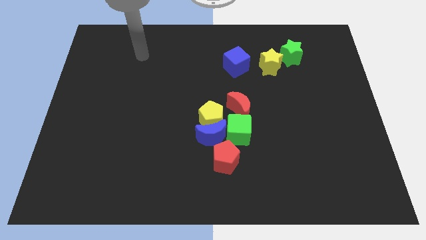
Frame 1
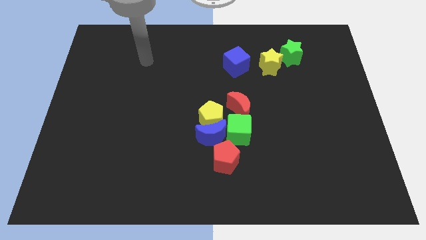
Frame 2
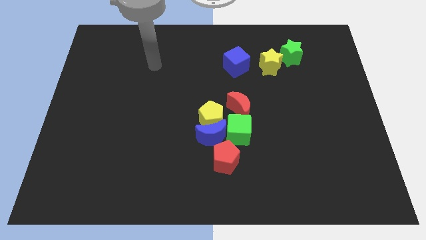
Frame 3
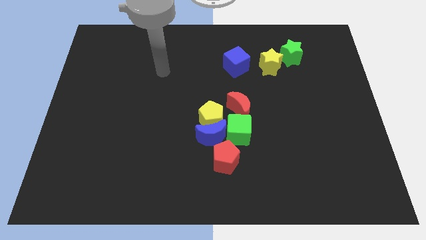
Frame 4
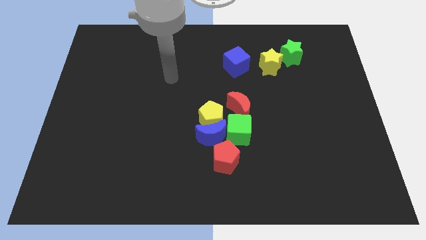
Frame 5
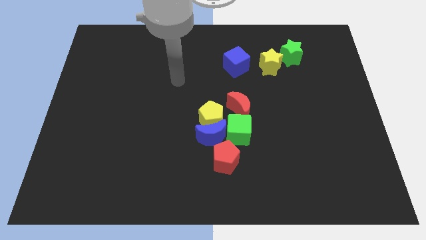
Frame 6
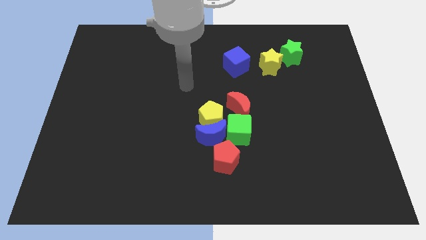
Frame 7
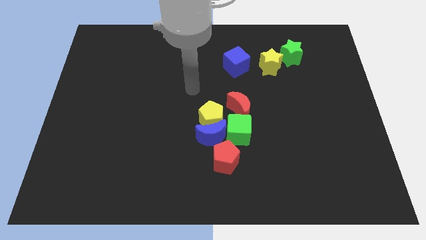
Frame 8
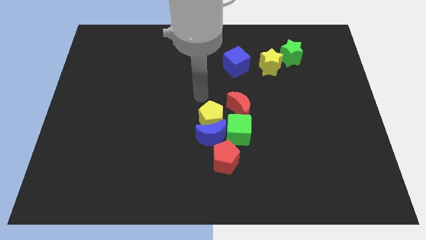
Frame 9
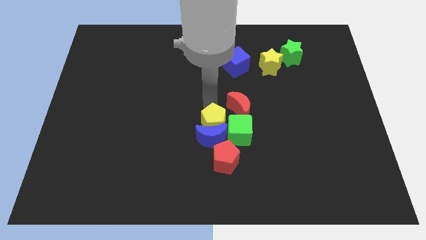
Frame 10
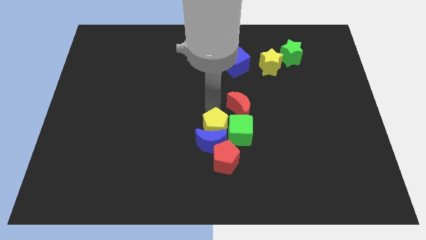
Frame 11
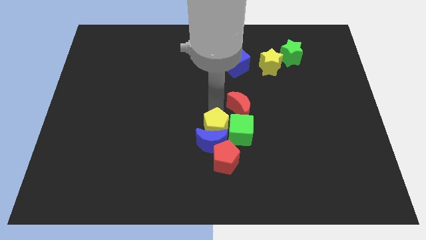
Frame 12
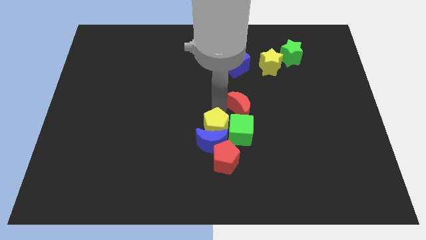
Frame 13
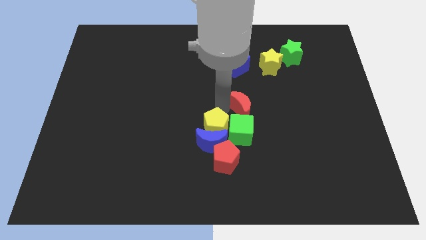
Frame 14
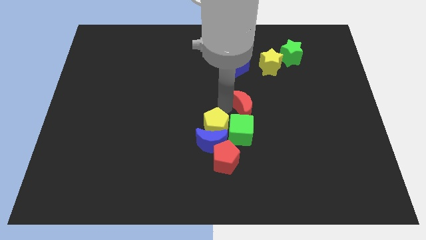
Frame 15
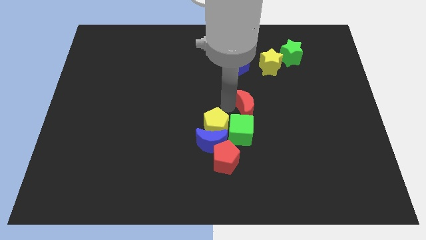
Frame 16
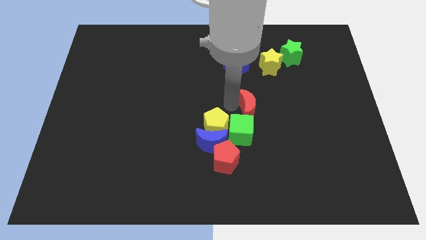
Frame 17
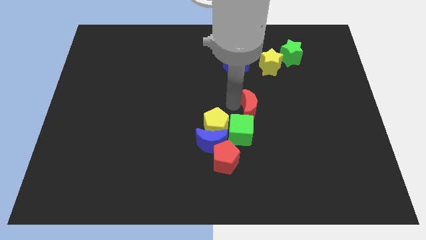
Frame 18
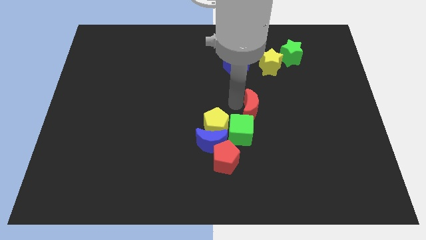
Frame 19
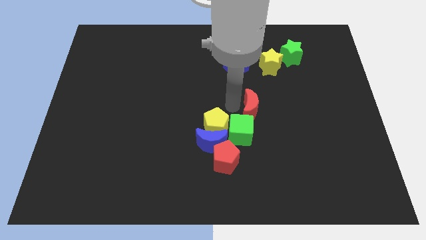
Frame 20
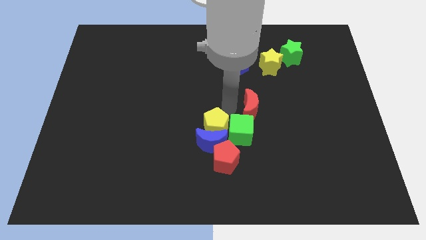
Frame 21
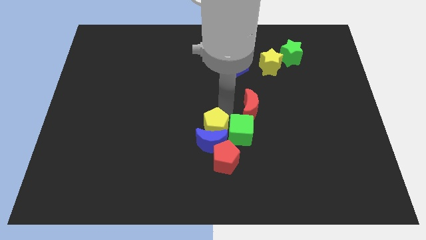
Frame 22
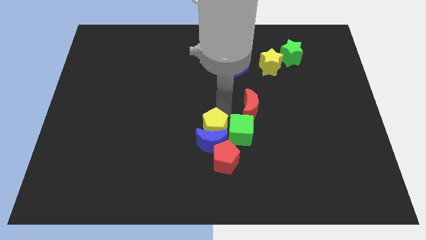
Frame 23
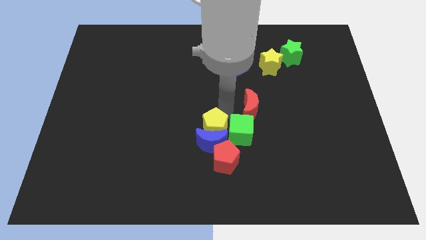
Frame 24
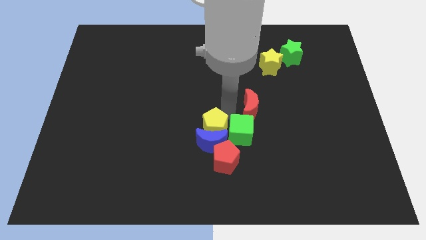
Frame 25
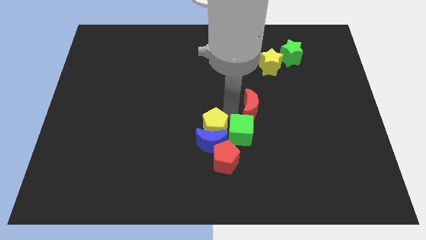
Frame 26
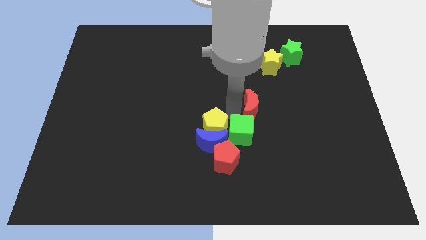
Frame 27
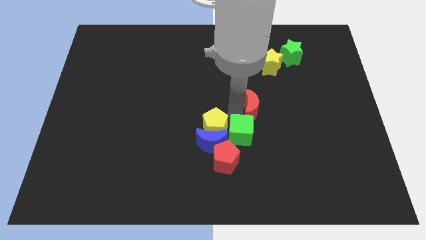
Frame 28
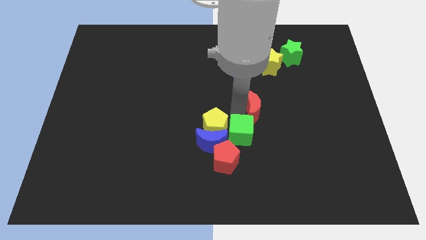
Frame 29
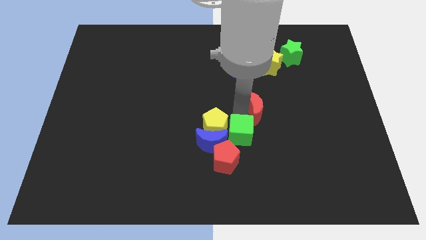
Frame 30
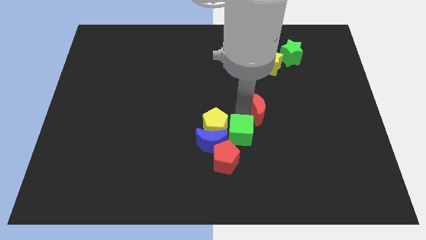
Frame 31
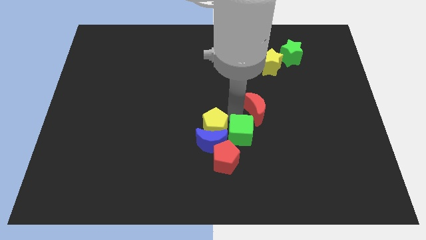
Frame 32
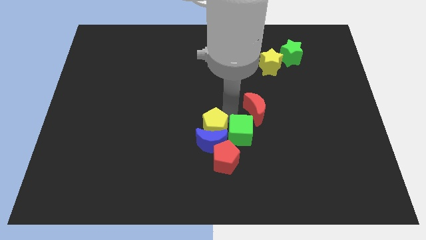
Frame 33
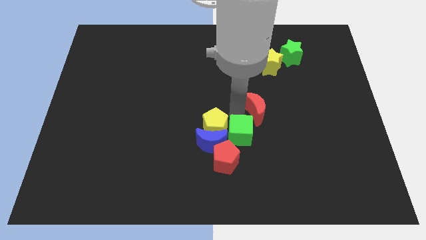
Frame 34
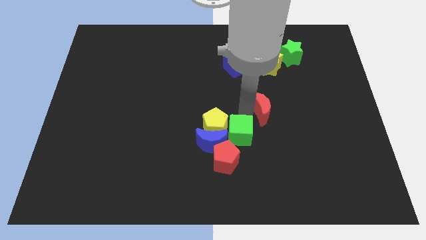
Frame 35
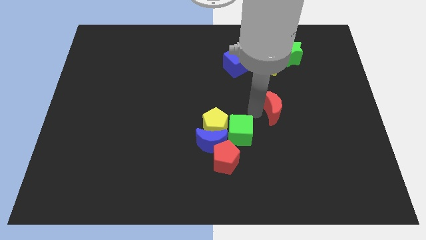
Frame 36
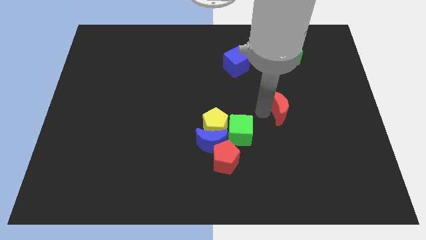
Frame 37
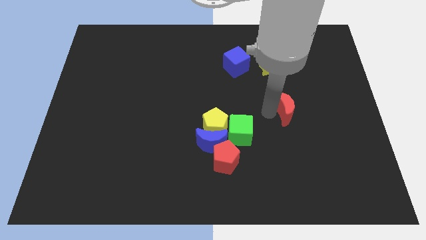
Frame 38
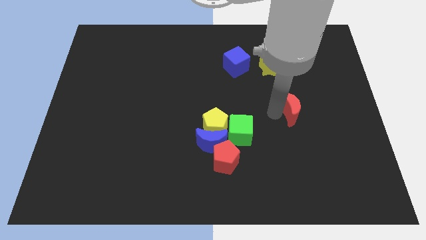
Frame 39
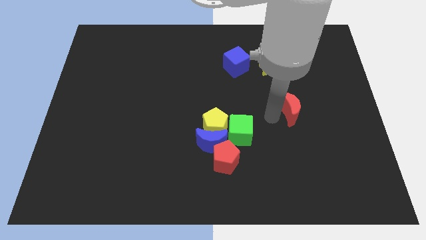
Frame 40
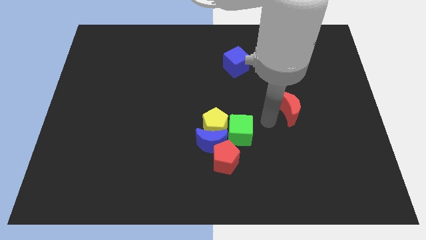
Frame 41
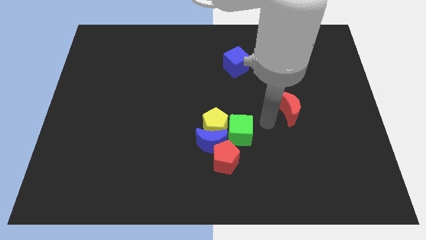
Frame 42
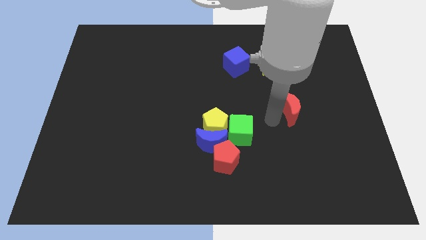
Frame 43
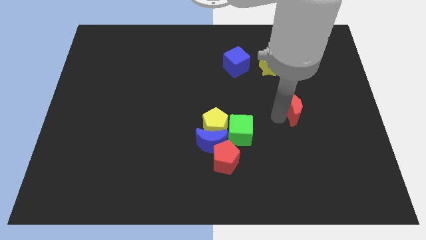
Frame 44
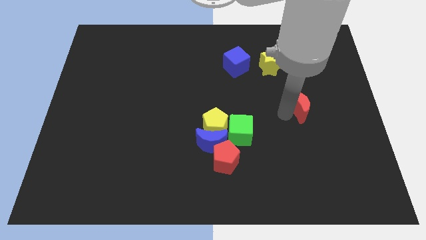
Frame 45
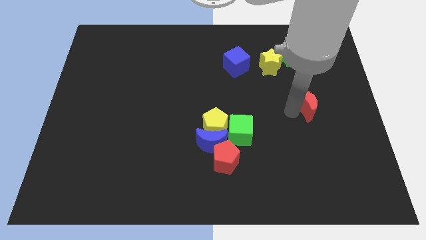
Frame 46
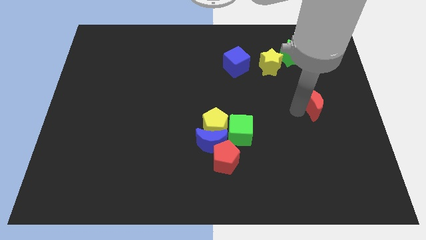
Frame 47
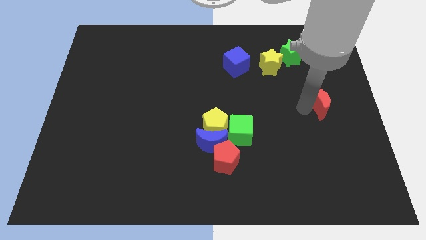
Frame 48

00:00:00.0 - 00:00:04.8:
put the red moon to the center right

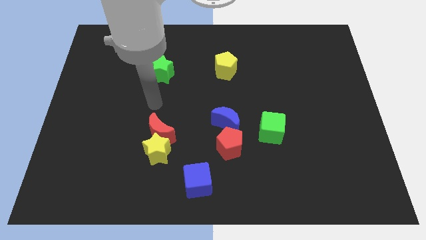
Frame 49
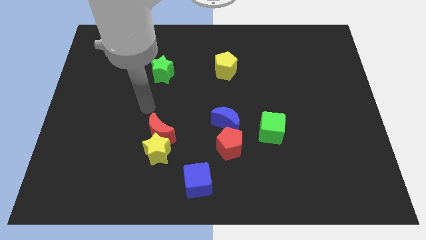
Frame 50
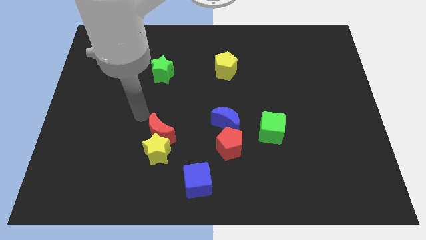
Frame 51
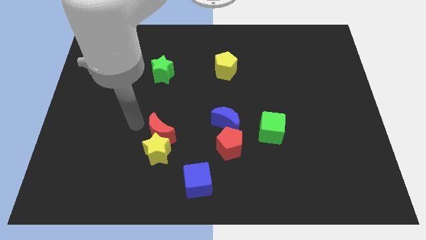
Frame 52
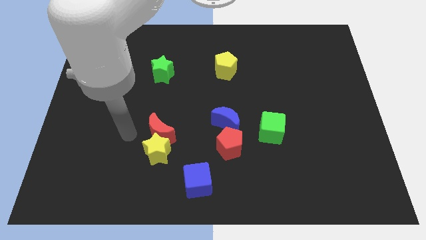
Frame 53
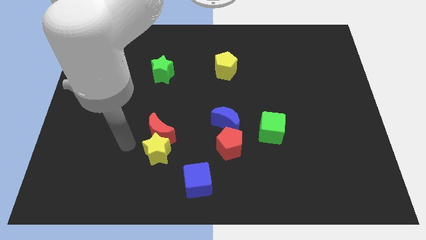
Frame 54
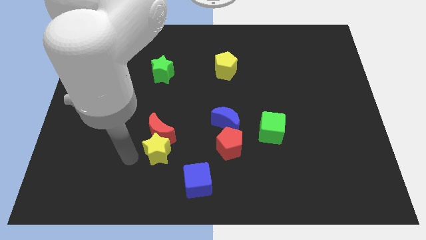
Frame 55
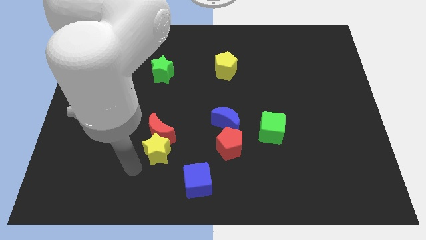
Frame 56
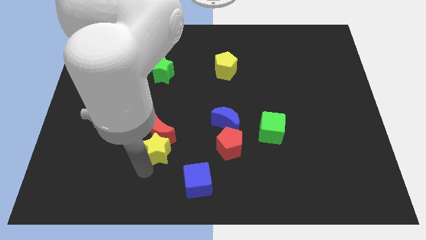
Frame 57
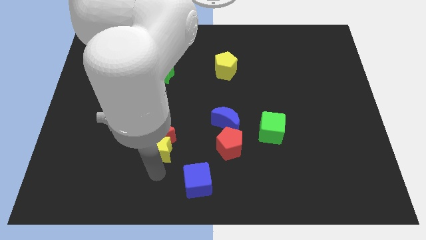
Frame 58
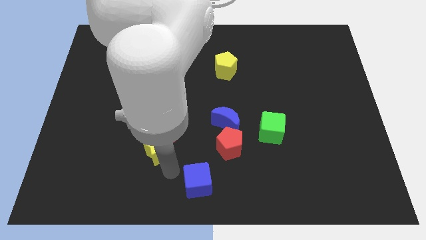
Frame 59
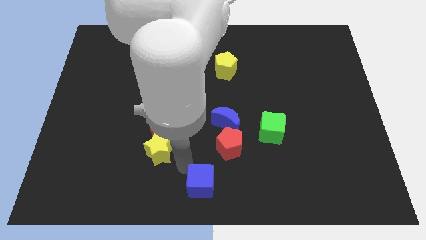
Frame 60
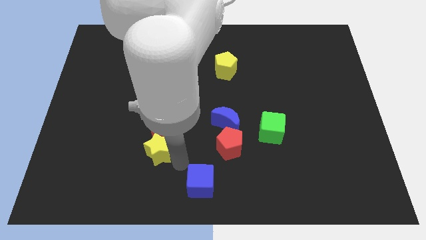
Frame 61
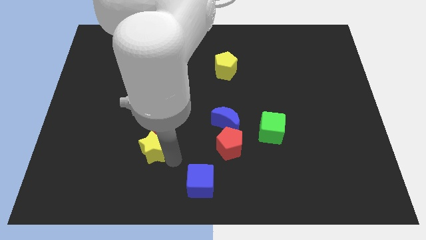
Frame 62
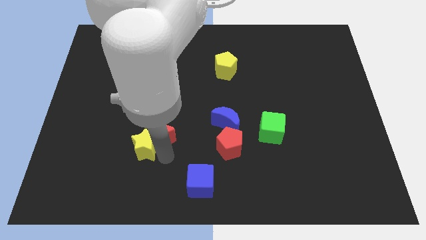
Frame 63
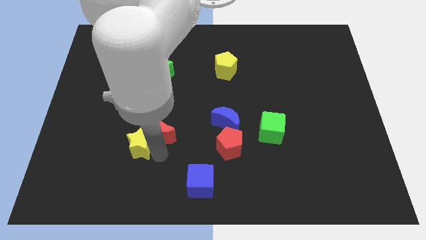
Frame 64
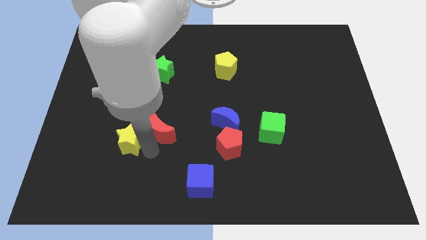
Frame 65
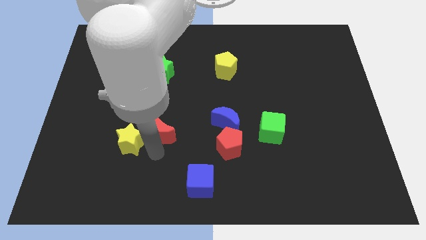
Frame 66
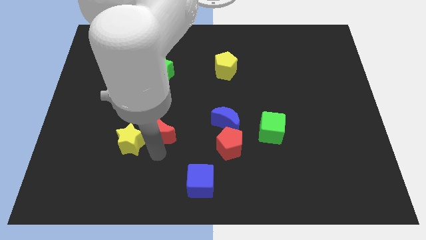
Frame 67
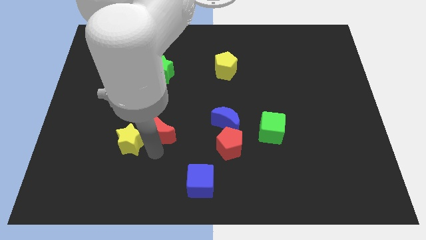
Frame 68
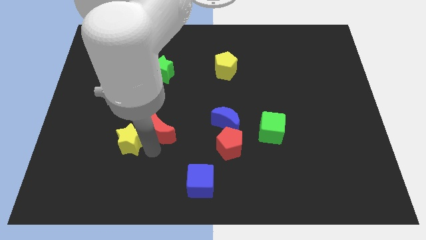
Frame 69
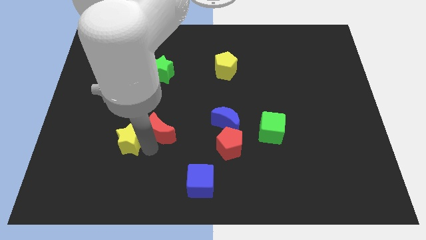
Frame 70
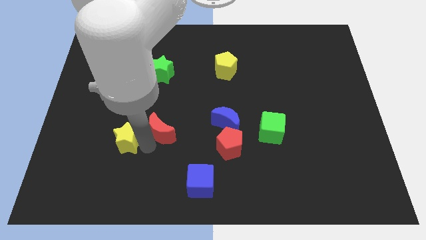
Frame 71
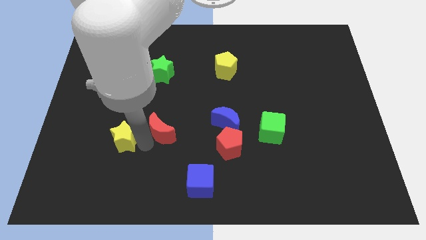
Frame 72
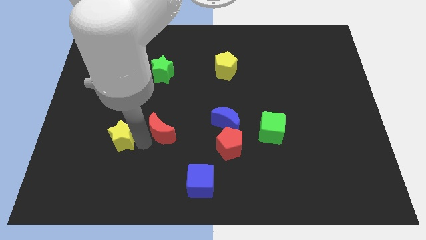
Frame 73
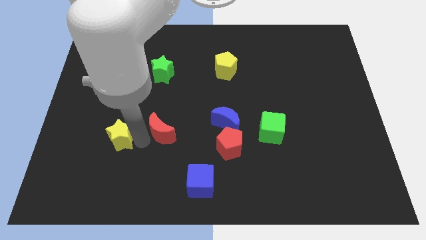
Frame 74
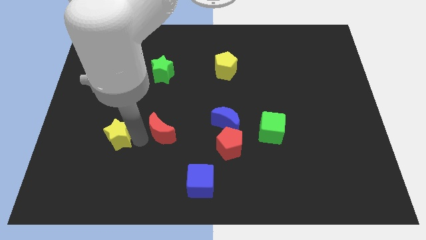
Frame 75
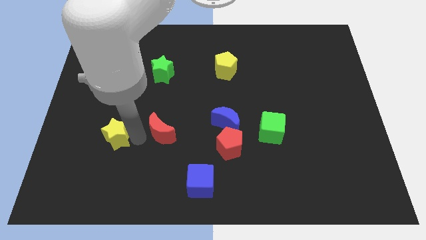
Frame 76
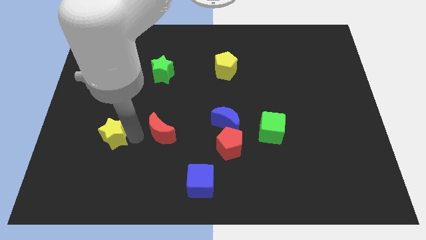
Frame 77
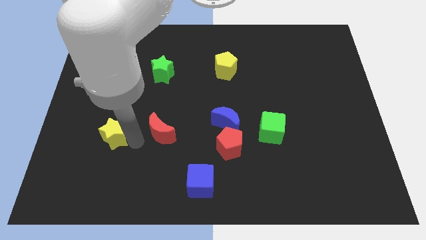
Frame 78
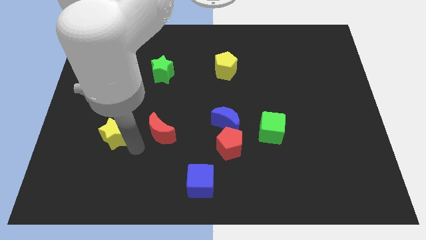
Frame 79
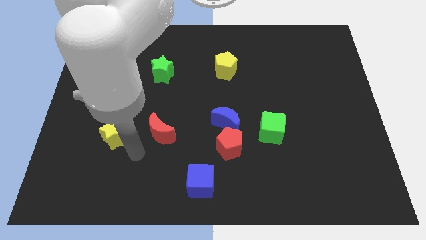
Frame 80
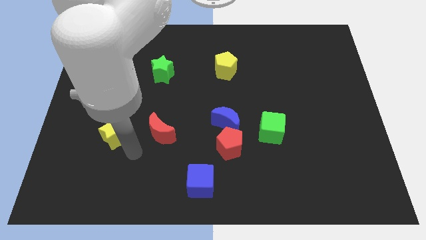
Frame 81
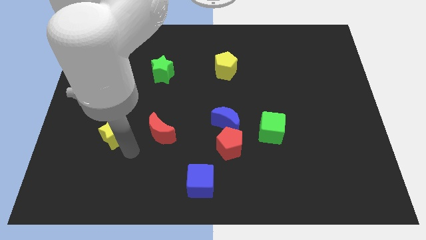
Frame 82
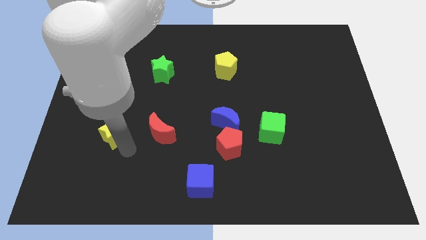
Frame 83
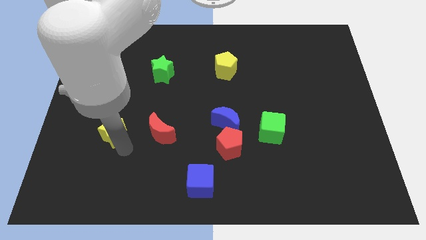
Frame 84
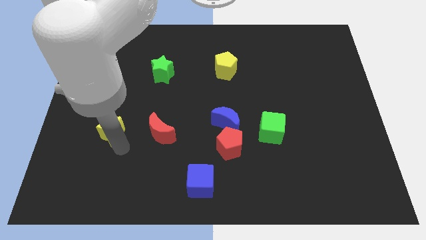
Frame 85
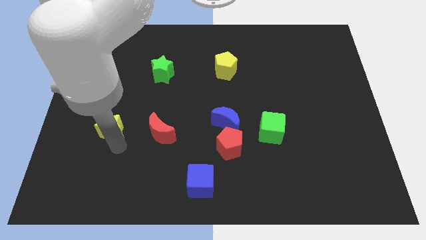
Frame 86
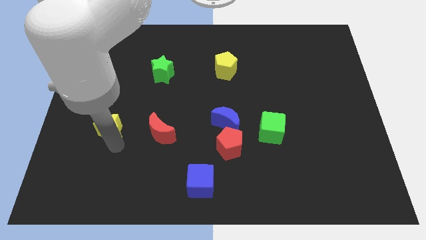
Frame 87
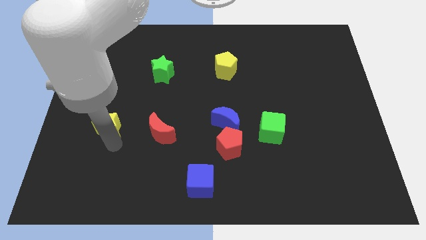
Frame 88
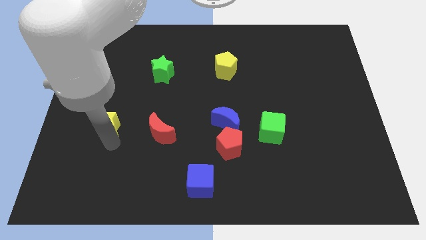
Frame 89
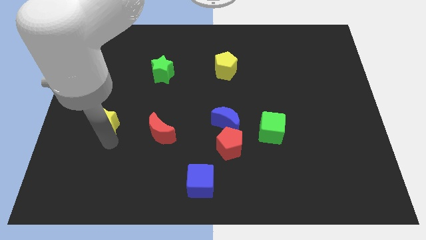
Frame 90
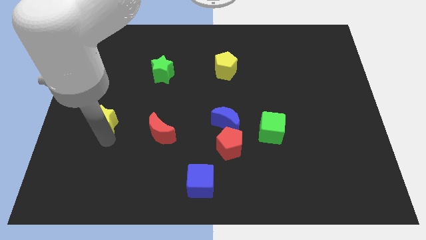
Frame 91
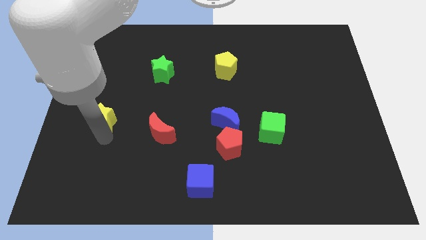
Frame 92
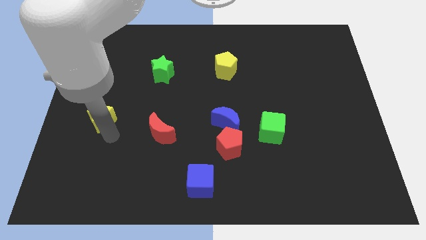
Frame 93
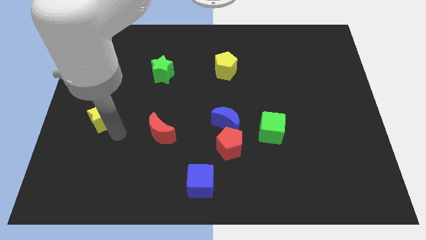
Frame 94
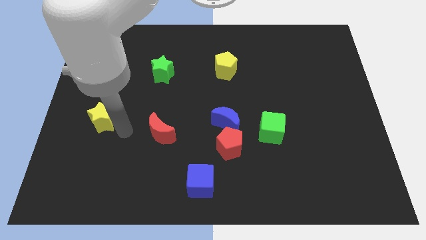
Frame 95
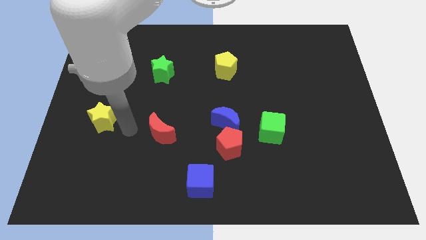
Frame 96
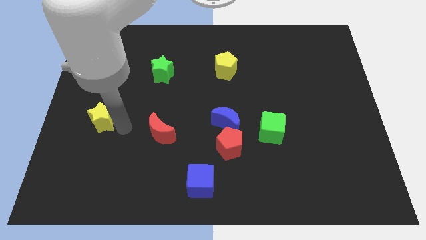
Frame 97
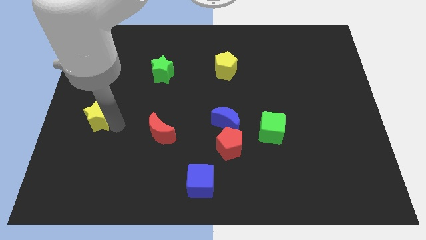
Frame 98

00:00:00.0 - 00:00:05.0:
push the yellow star to the left side
